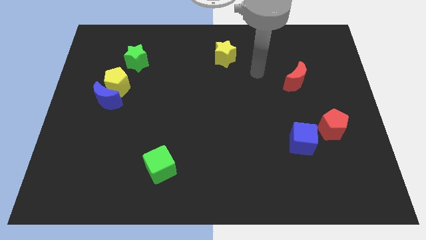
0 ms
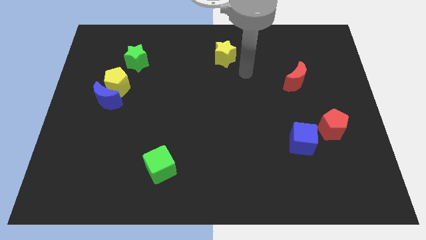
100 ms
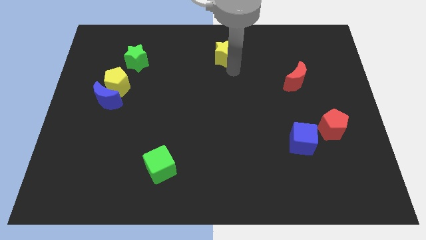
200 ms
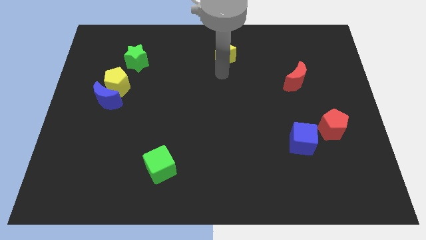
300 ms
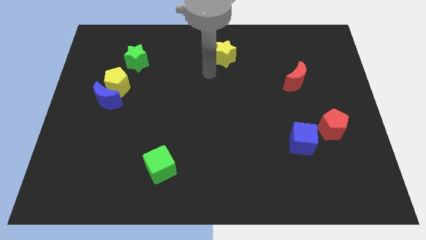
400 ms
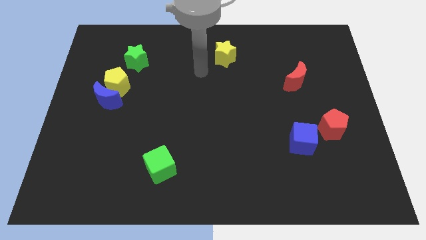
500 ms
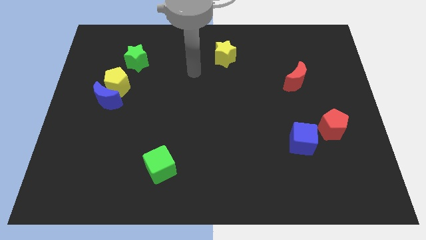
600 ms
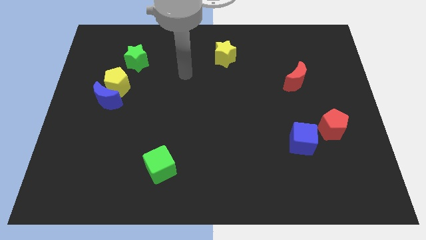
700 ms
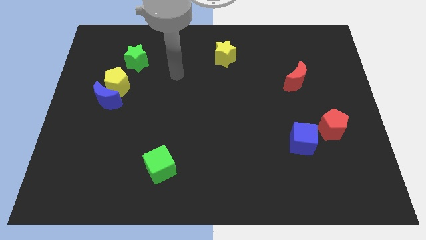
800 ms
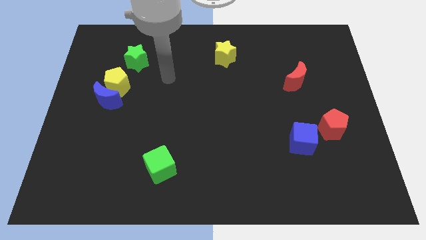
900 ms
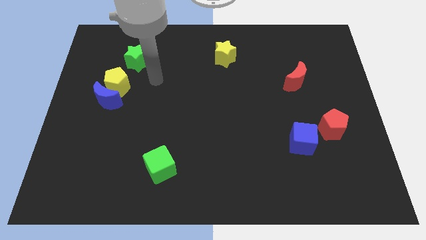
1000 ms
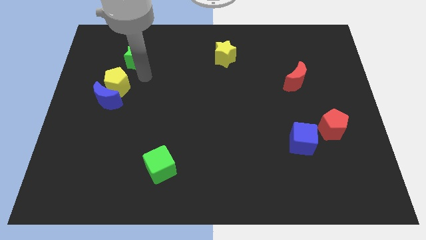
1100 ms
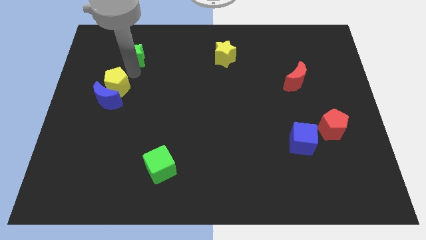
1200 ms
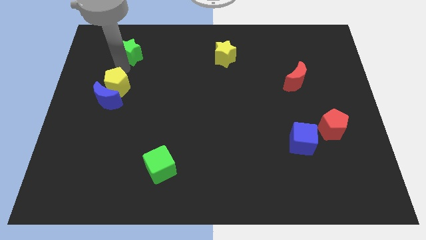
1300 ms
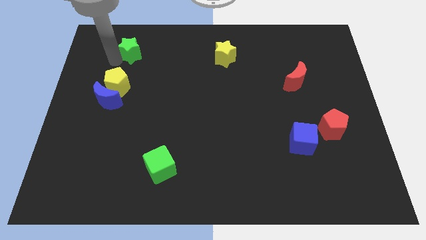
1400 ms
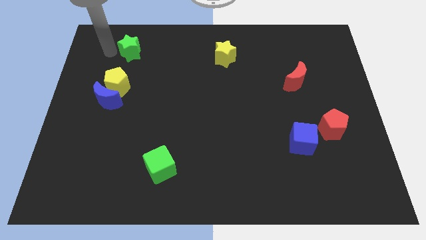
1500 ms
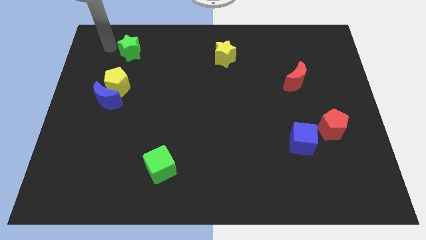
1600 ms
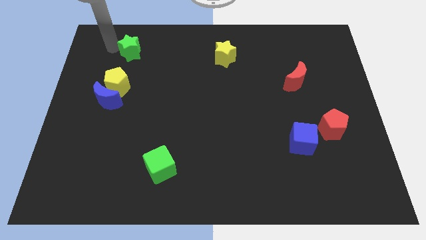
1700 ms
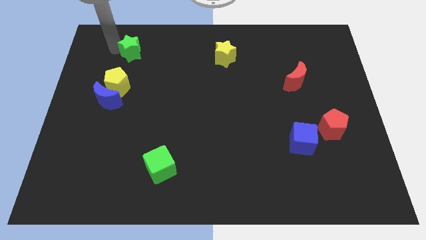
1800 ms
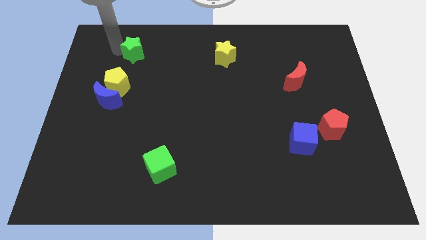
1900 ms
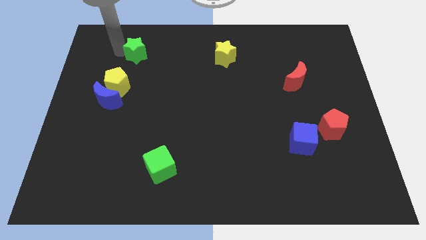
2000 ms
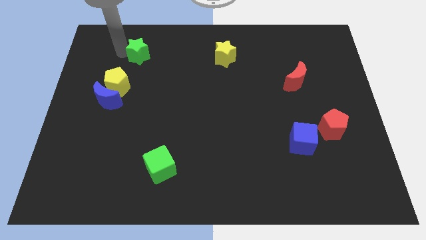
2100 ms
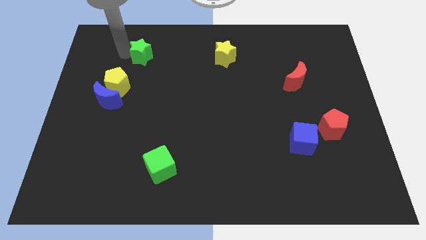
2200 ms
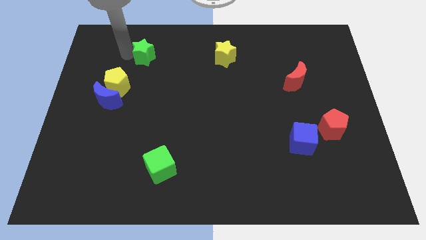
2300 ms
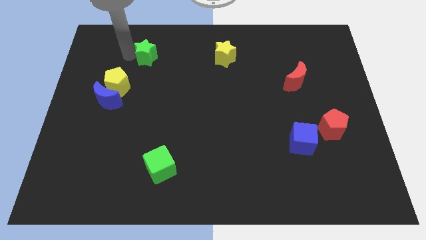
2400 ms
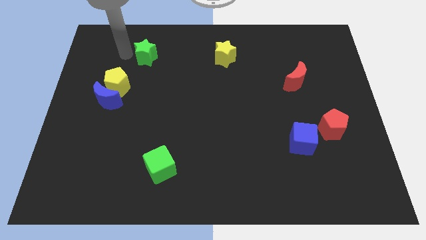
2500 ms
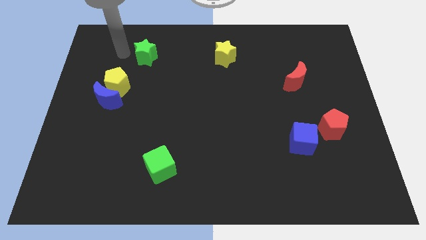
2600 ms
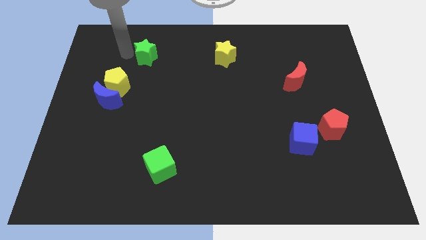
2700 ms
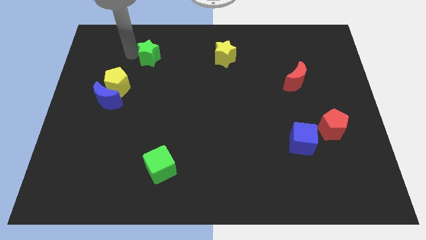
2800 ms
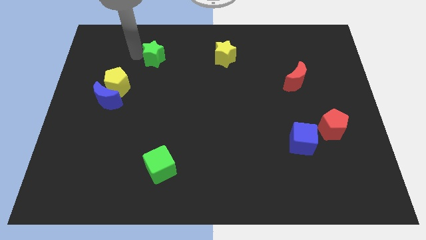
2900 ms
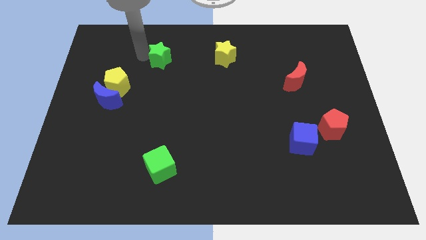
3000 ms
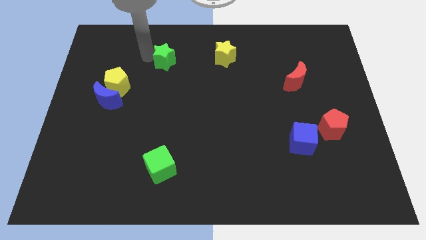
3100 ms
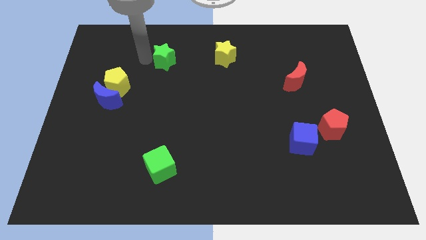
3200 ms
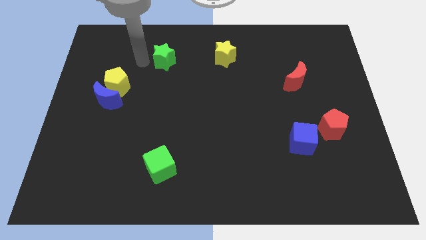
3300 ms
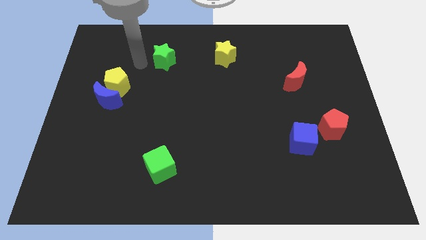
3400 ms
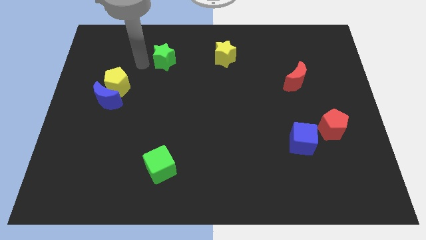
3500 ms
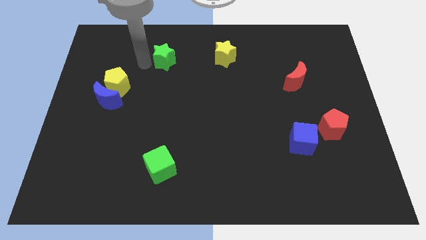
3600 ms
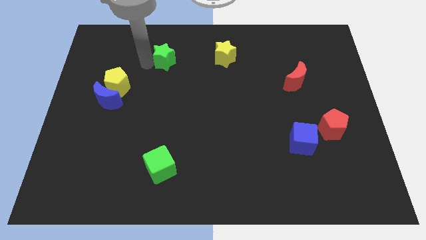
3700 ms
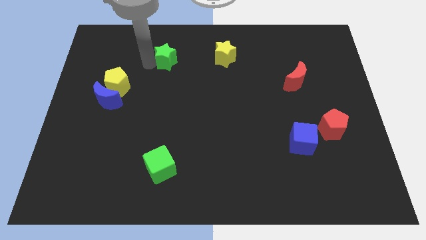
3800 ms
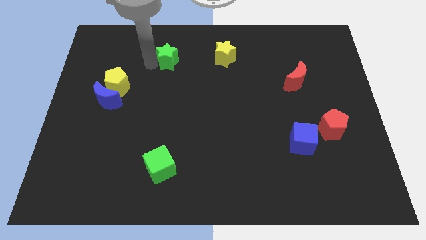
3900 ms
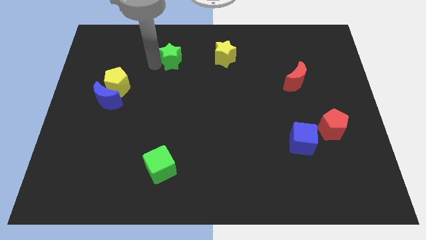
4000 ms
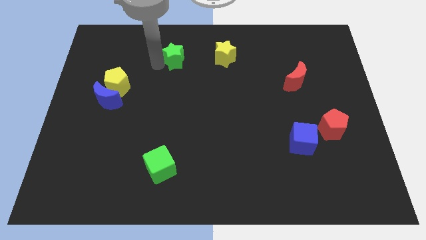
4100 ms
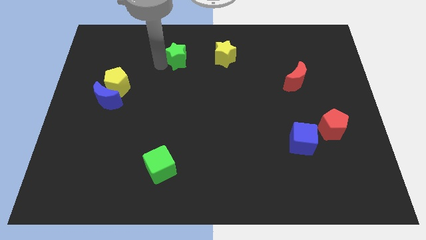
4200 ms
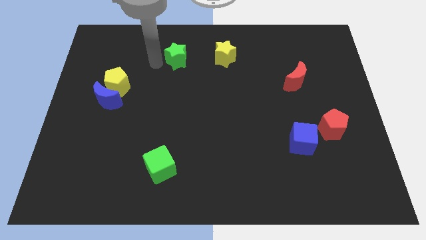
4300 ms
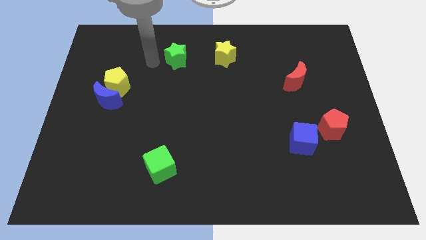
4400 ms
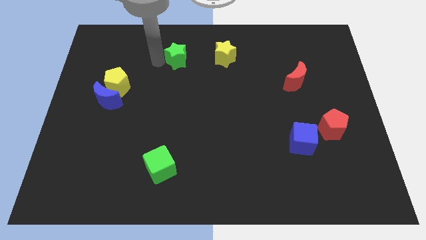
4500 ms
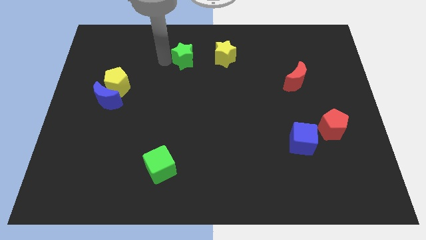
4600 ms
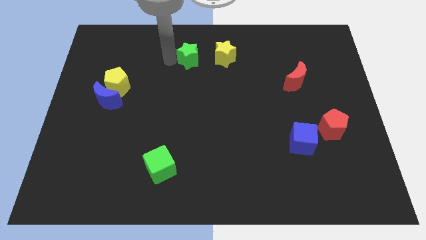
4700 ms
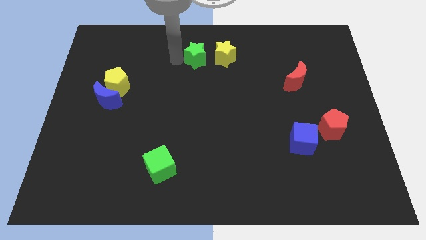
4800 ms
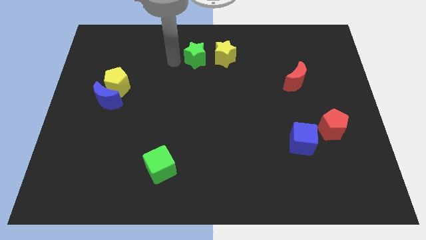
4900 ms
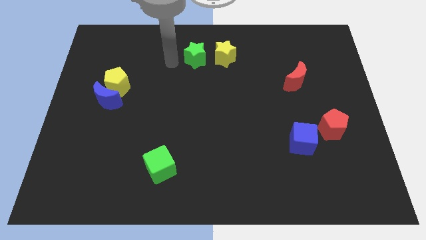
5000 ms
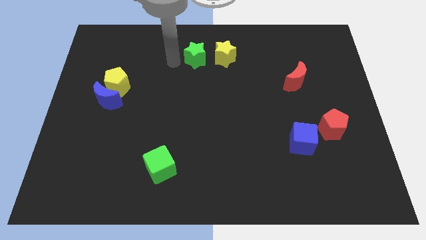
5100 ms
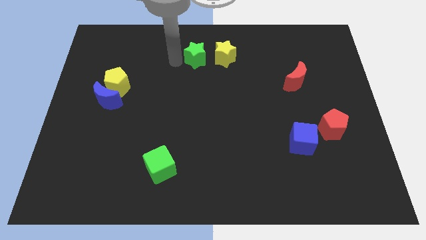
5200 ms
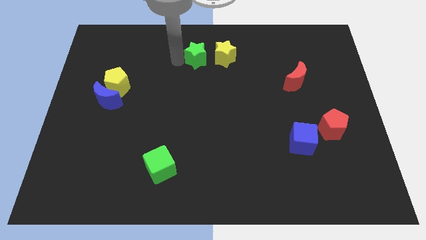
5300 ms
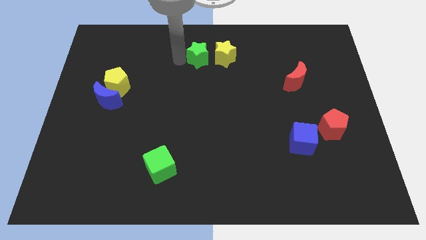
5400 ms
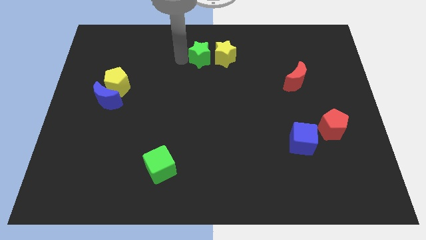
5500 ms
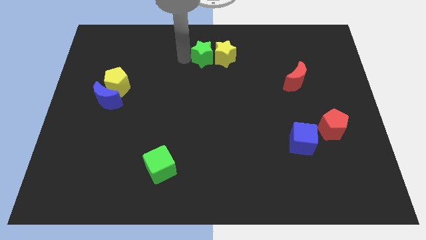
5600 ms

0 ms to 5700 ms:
push the green star close to the yellow star

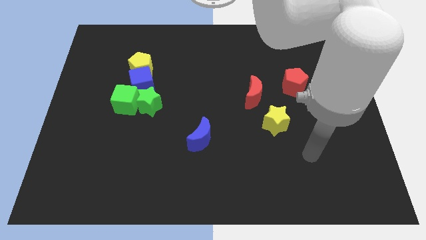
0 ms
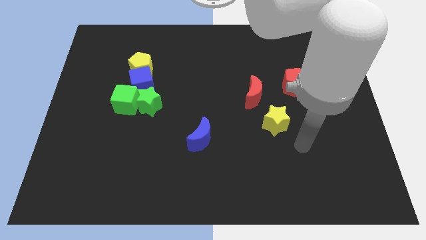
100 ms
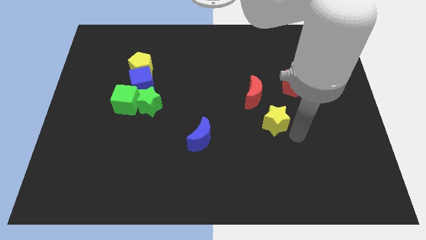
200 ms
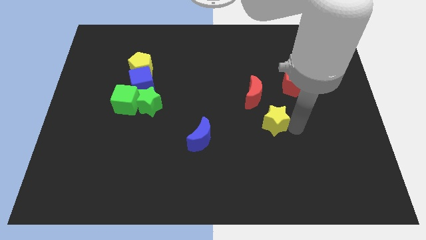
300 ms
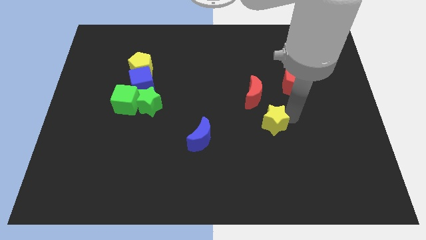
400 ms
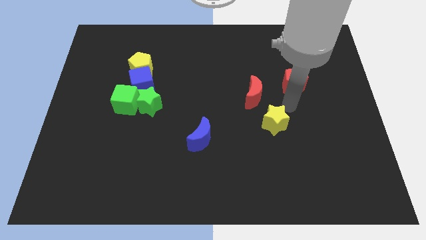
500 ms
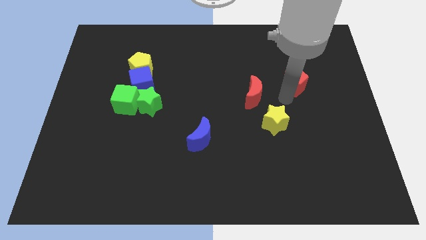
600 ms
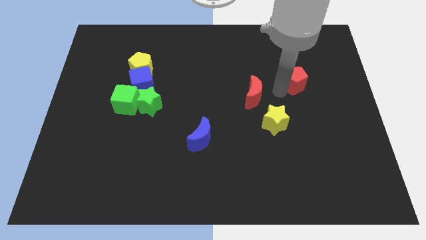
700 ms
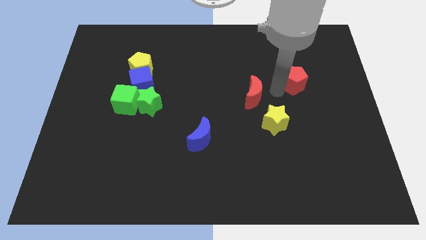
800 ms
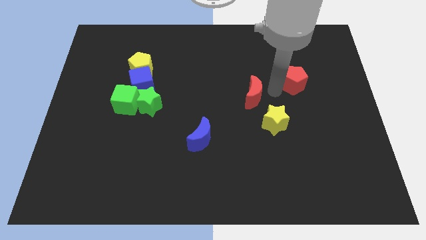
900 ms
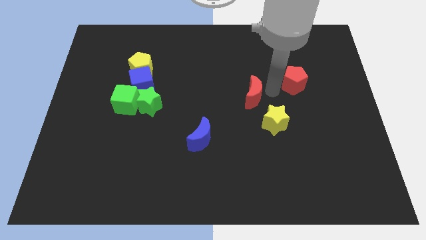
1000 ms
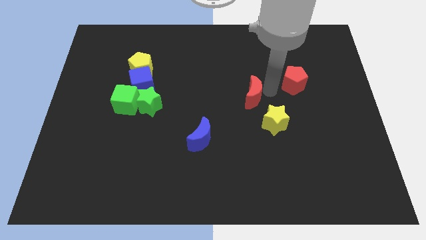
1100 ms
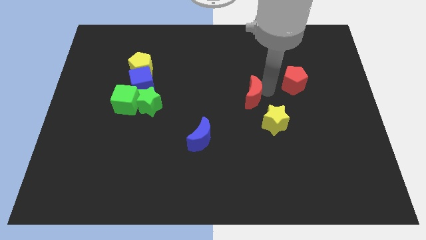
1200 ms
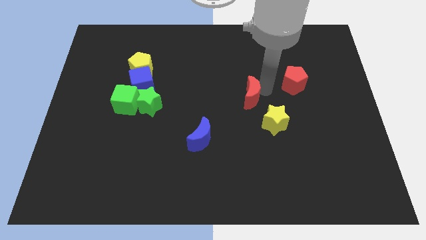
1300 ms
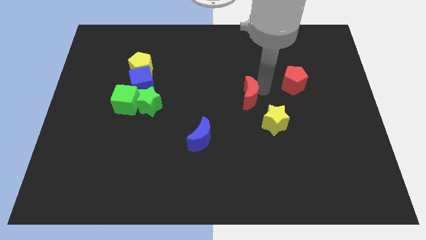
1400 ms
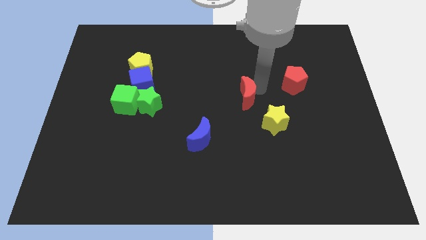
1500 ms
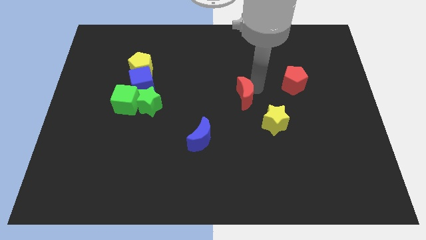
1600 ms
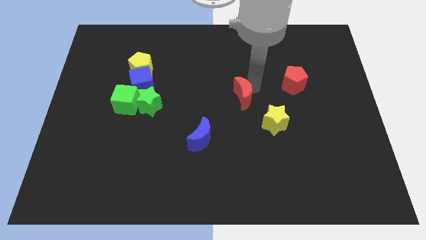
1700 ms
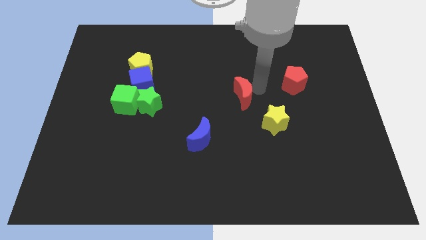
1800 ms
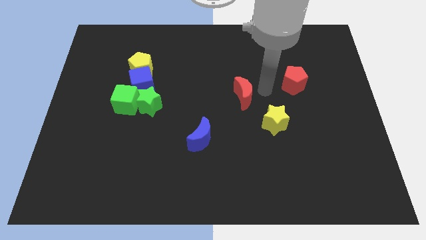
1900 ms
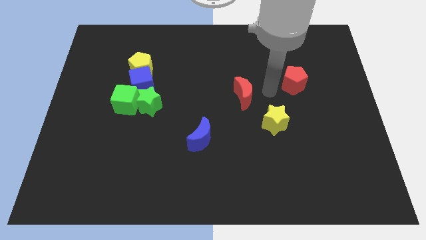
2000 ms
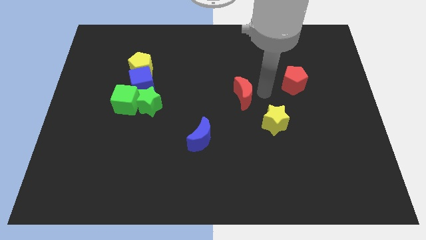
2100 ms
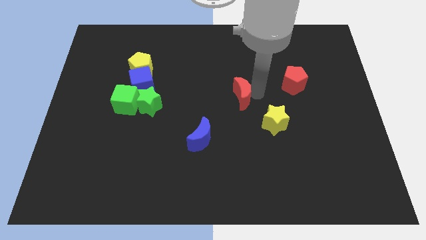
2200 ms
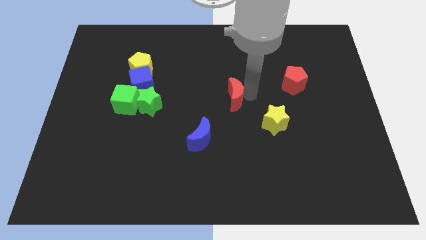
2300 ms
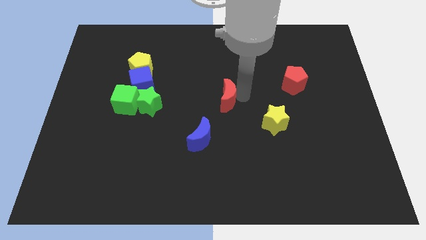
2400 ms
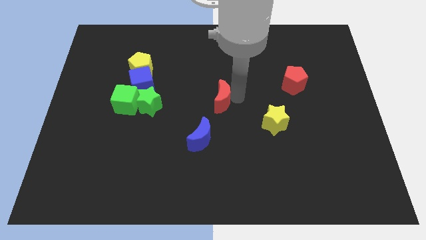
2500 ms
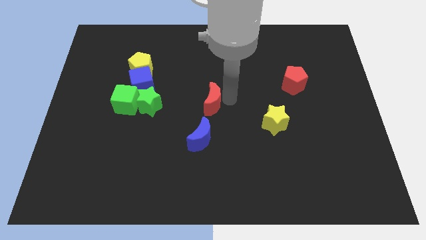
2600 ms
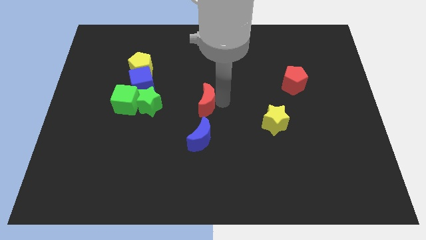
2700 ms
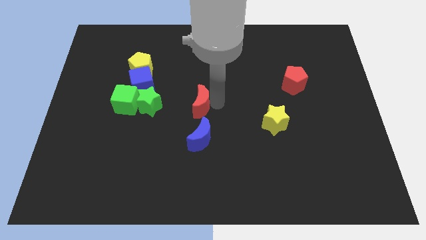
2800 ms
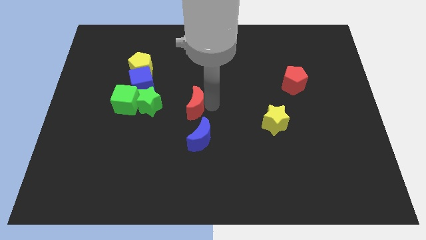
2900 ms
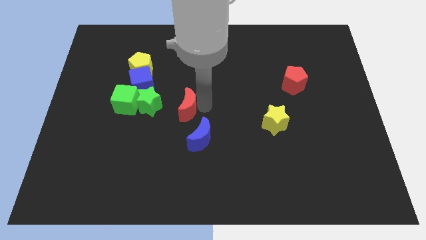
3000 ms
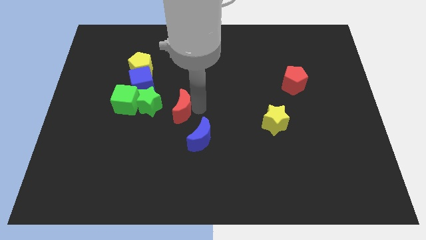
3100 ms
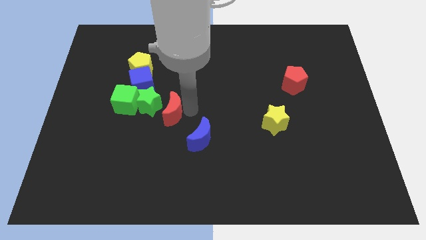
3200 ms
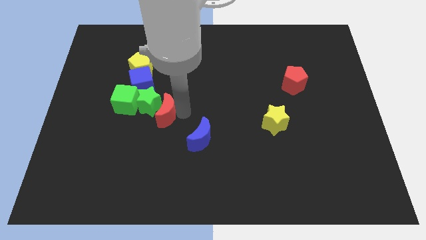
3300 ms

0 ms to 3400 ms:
push the red moon next to the green star
